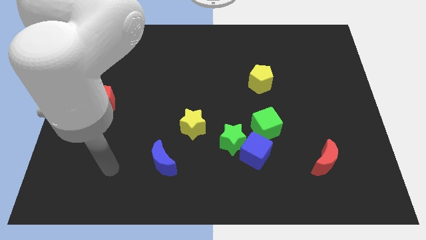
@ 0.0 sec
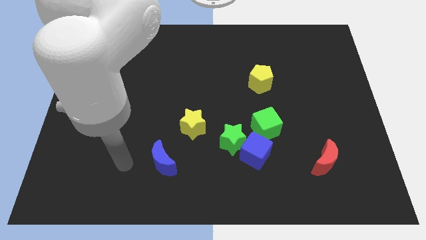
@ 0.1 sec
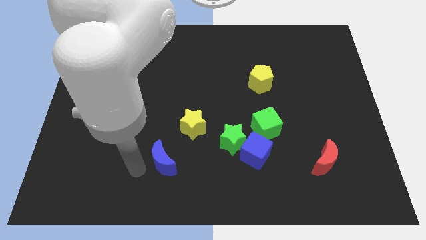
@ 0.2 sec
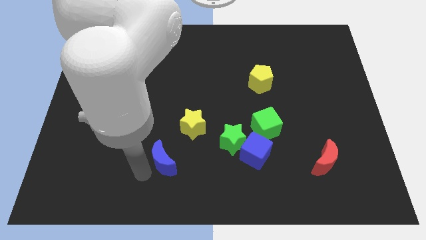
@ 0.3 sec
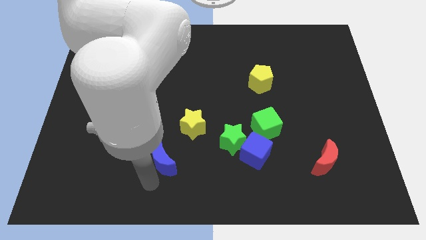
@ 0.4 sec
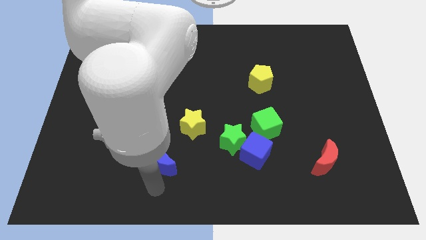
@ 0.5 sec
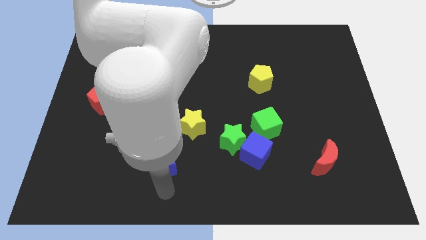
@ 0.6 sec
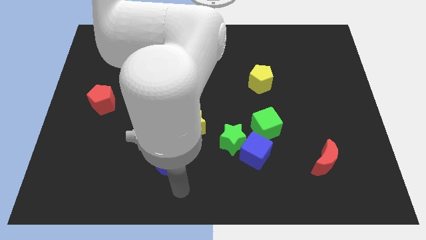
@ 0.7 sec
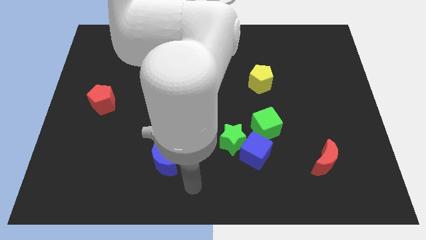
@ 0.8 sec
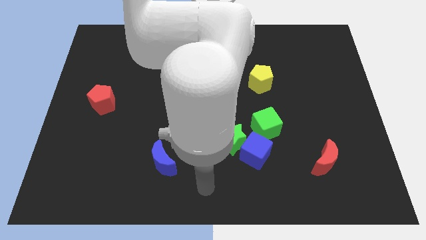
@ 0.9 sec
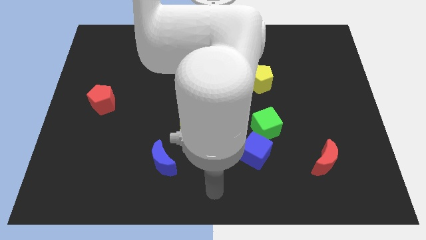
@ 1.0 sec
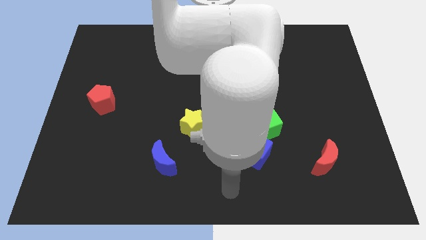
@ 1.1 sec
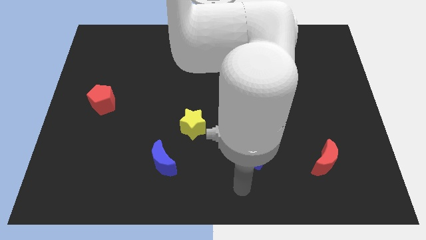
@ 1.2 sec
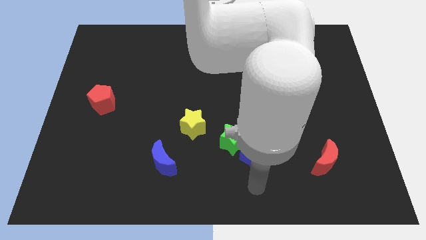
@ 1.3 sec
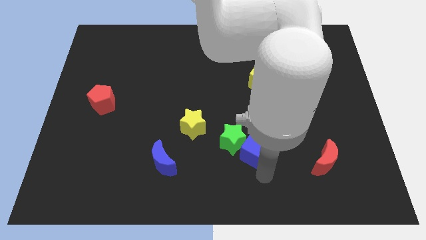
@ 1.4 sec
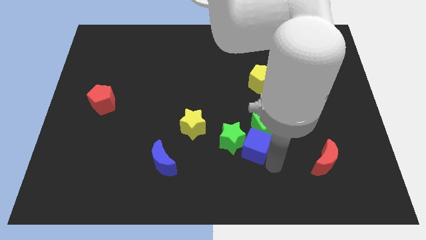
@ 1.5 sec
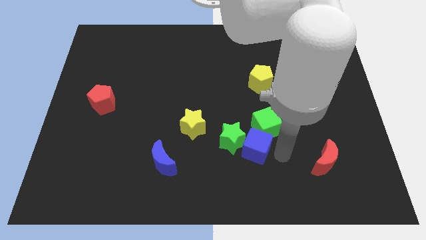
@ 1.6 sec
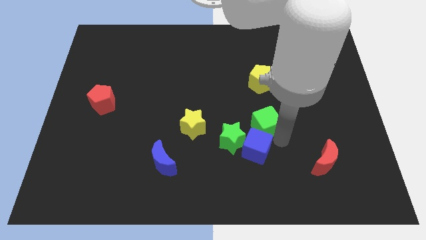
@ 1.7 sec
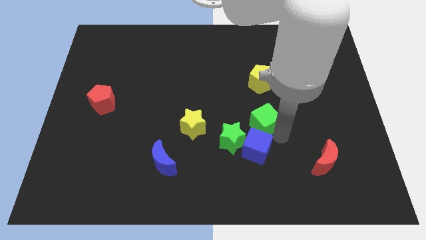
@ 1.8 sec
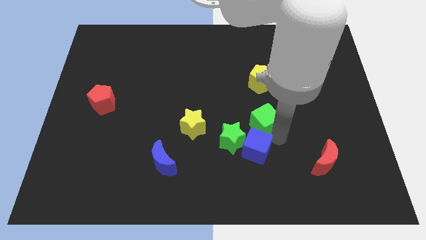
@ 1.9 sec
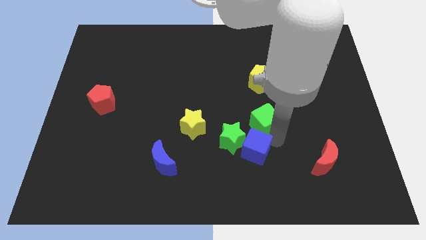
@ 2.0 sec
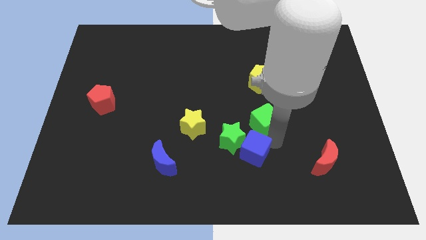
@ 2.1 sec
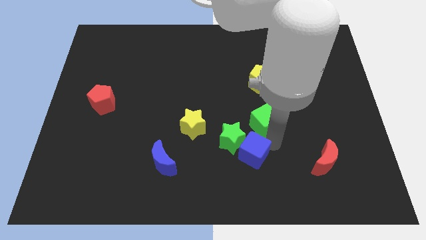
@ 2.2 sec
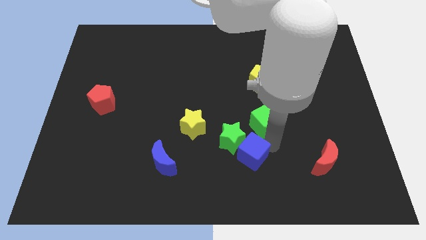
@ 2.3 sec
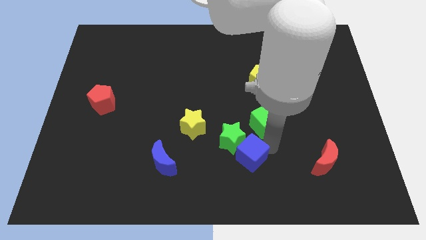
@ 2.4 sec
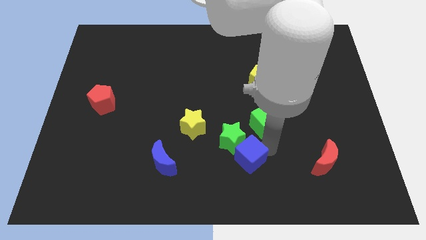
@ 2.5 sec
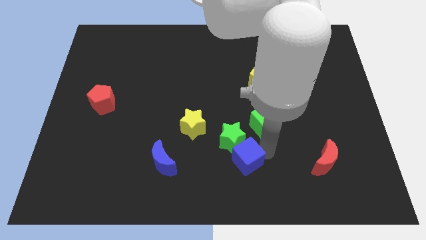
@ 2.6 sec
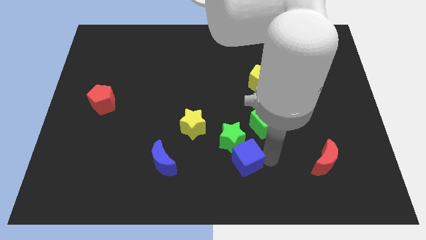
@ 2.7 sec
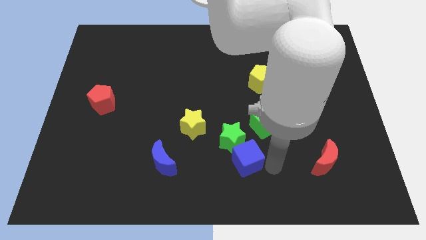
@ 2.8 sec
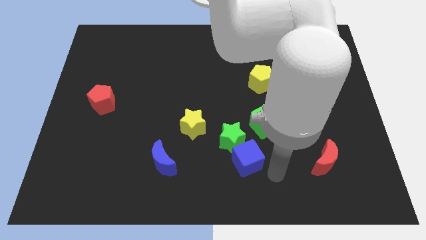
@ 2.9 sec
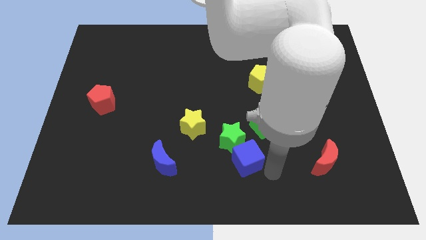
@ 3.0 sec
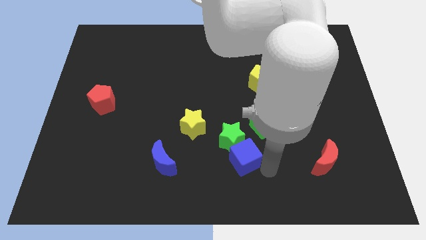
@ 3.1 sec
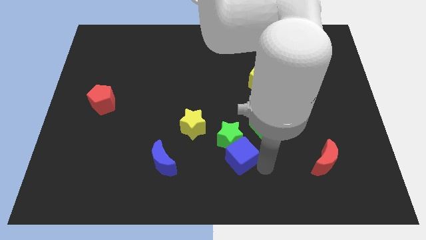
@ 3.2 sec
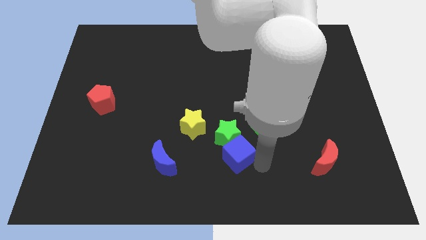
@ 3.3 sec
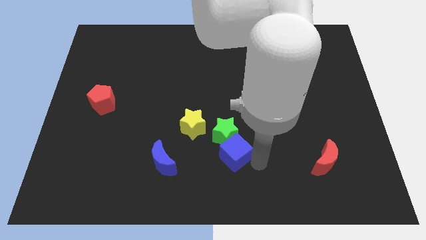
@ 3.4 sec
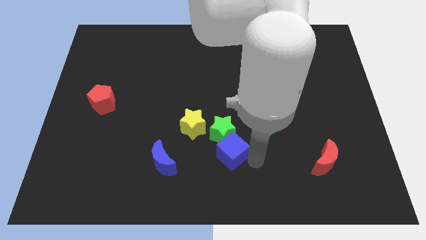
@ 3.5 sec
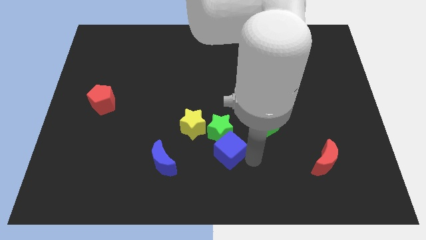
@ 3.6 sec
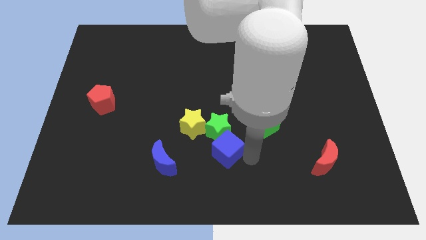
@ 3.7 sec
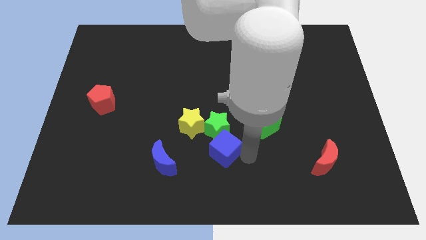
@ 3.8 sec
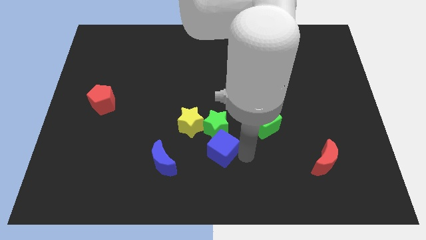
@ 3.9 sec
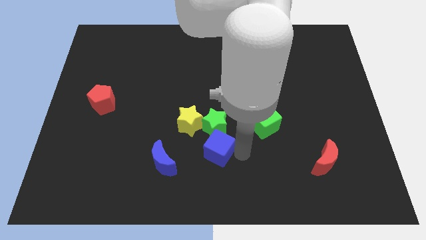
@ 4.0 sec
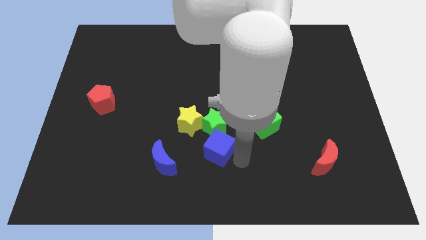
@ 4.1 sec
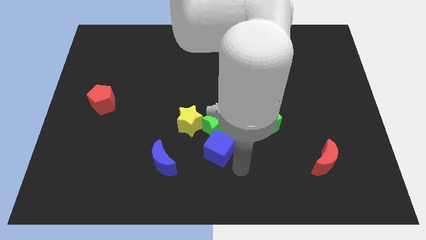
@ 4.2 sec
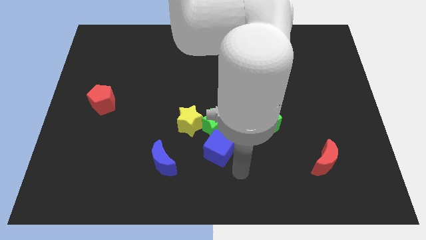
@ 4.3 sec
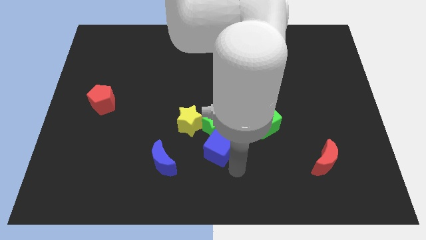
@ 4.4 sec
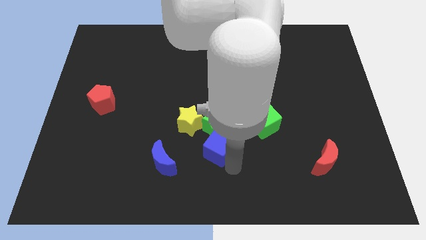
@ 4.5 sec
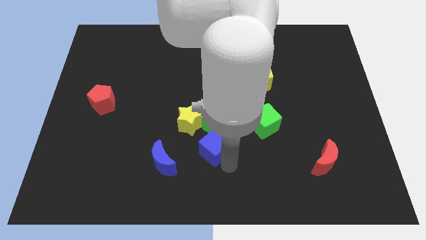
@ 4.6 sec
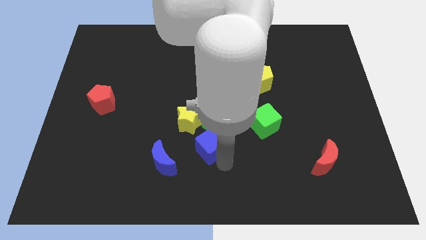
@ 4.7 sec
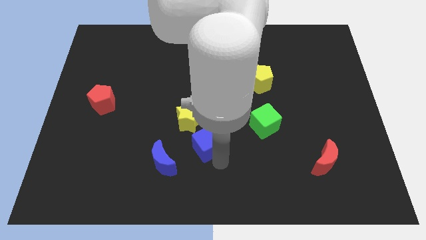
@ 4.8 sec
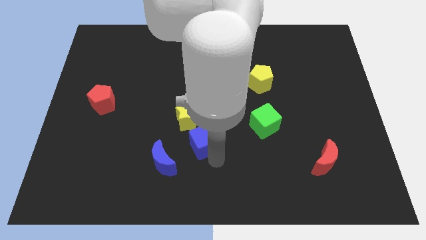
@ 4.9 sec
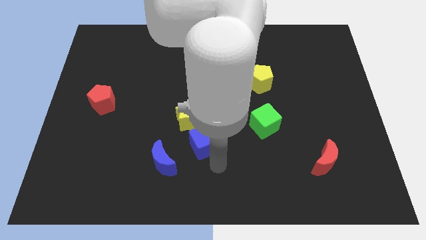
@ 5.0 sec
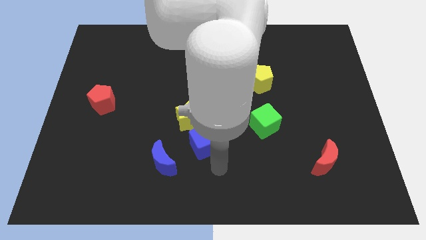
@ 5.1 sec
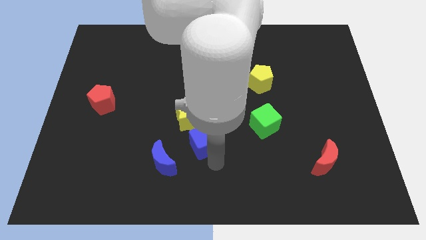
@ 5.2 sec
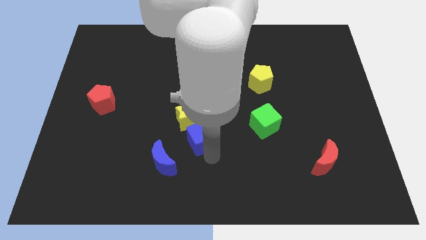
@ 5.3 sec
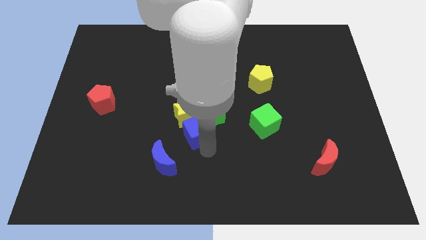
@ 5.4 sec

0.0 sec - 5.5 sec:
put the blue cube next to the yellow star

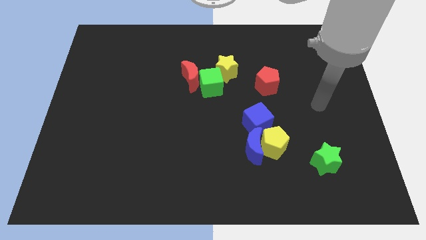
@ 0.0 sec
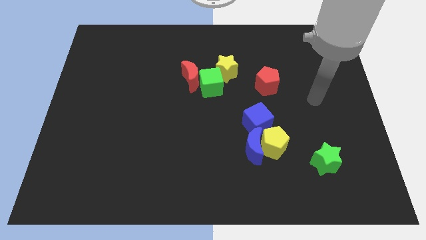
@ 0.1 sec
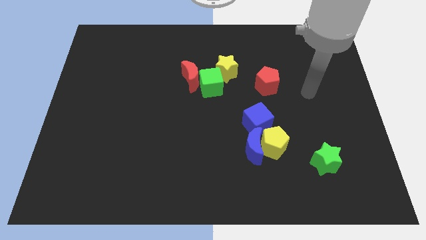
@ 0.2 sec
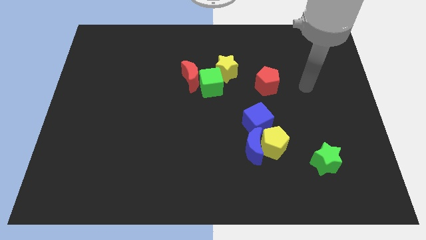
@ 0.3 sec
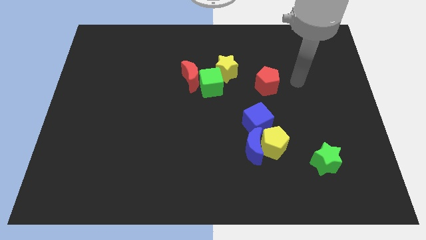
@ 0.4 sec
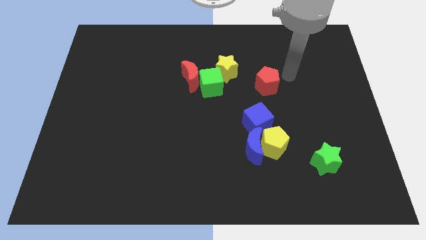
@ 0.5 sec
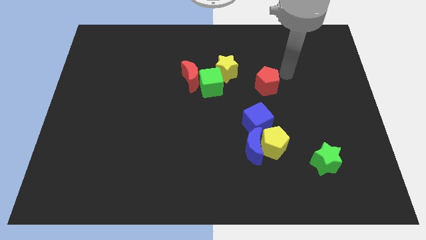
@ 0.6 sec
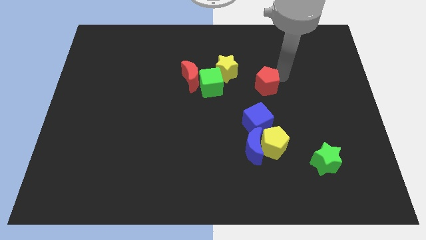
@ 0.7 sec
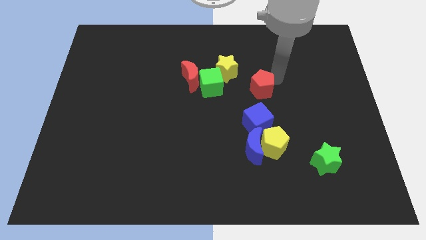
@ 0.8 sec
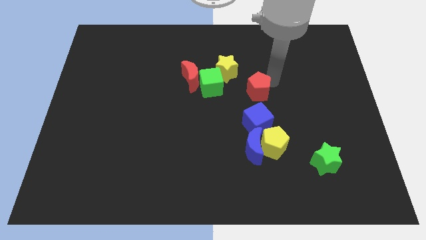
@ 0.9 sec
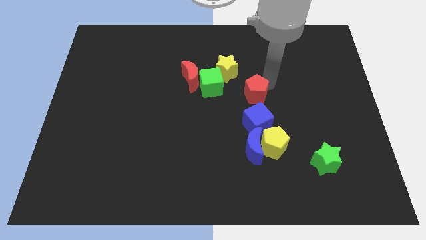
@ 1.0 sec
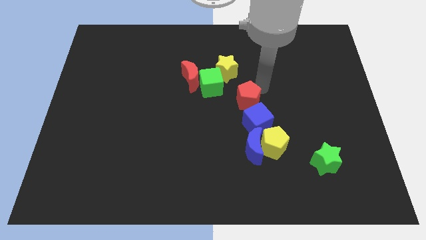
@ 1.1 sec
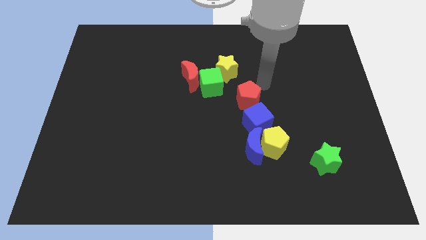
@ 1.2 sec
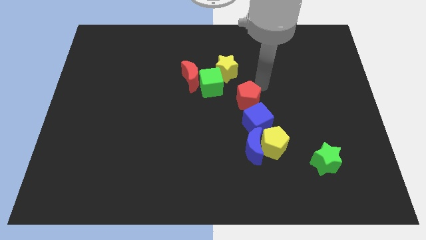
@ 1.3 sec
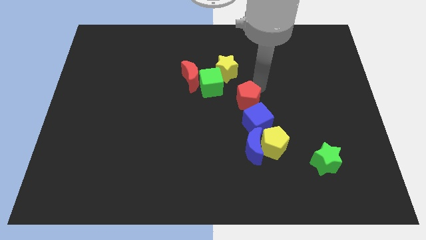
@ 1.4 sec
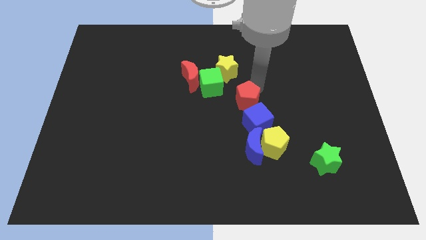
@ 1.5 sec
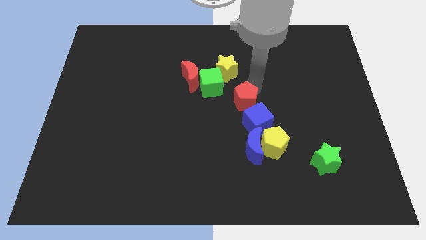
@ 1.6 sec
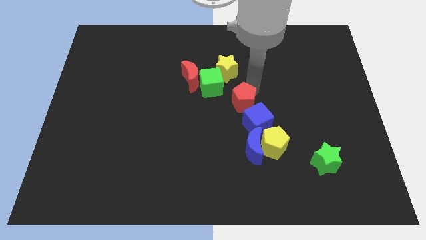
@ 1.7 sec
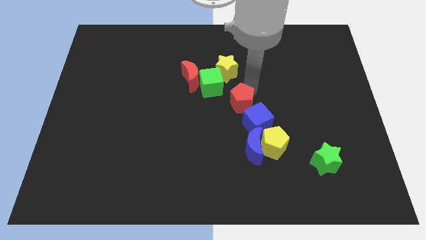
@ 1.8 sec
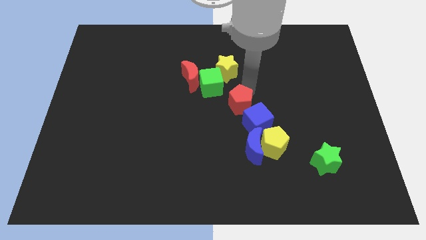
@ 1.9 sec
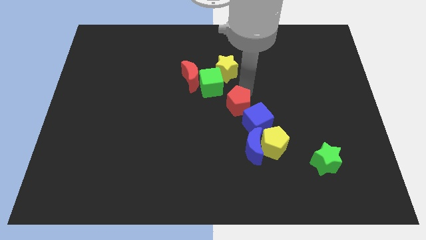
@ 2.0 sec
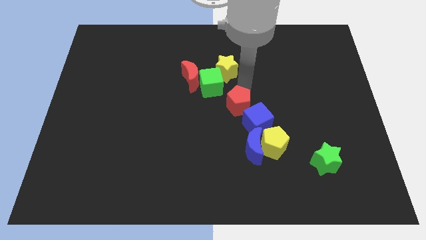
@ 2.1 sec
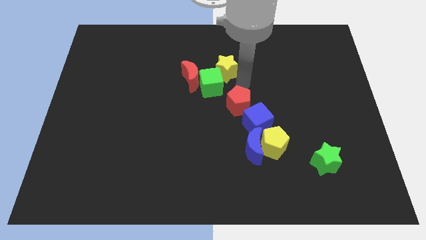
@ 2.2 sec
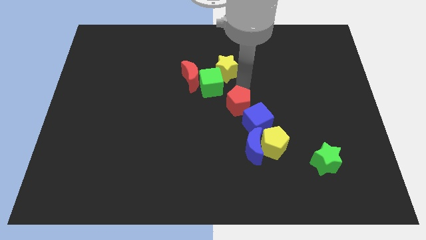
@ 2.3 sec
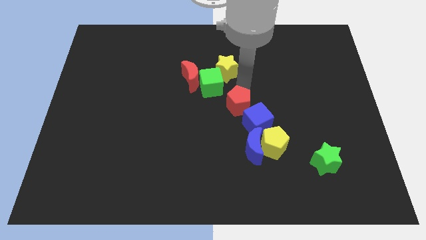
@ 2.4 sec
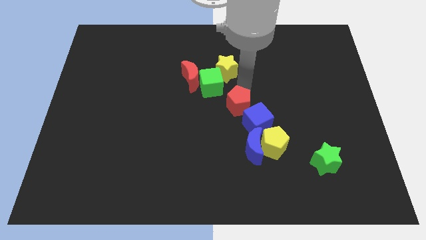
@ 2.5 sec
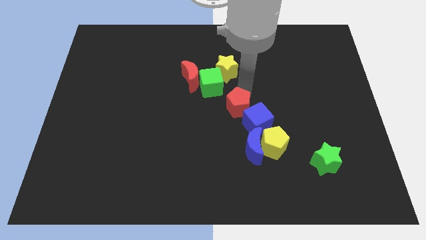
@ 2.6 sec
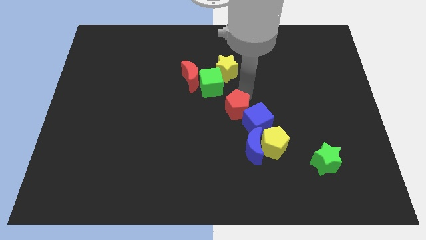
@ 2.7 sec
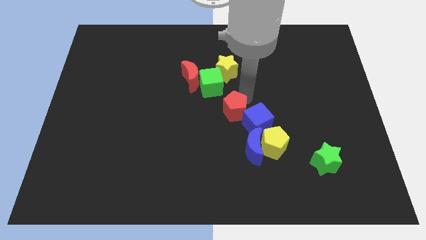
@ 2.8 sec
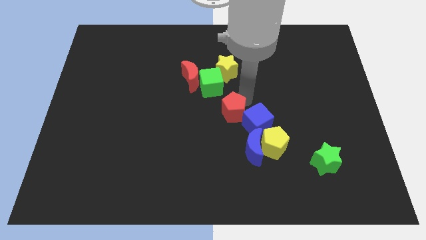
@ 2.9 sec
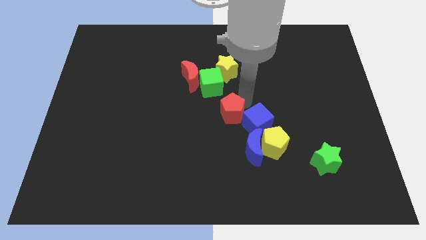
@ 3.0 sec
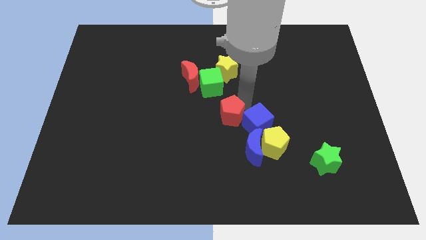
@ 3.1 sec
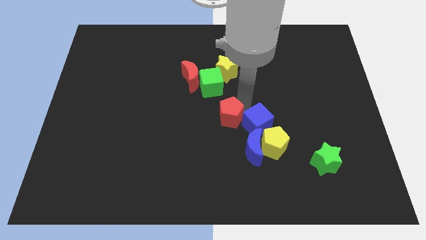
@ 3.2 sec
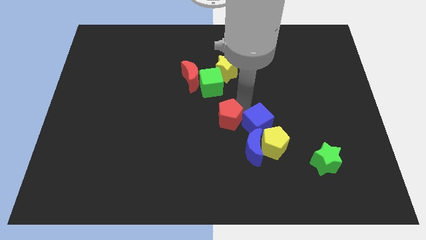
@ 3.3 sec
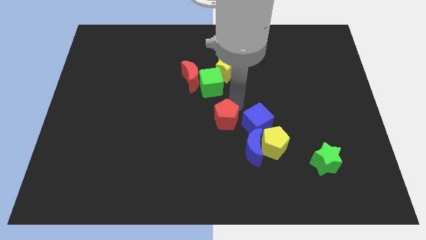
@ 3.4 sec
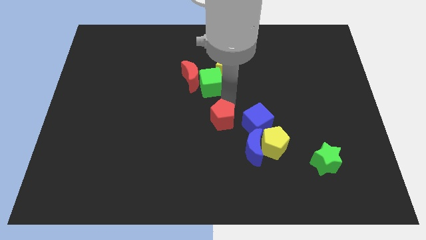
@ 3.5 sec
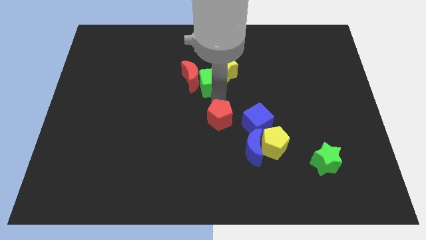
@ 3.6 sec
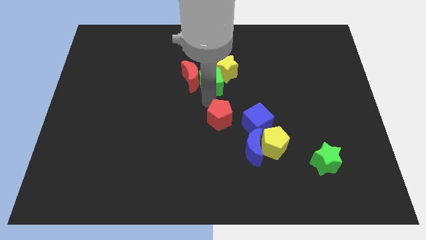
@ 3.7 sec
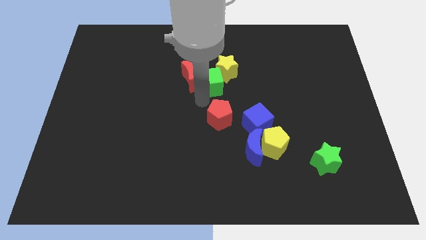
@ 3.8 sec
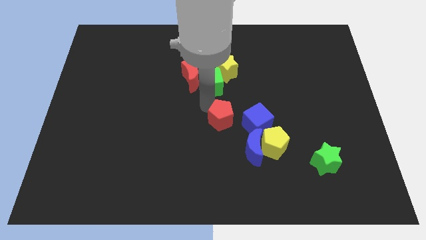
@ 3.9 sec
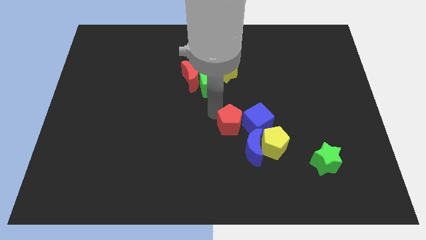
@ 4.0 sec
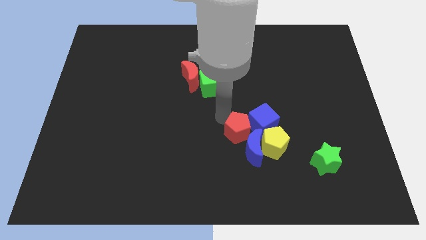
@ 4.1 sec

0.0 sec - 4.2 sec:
slide the red pentagon close to the blue moon
